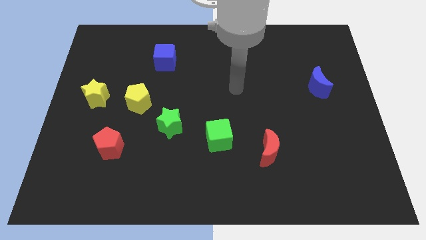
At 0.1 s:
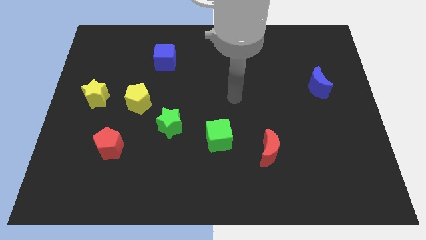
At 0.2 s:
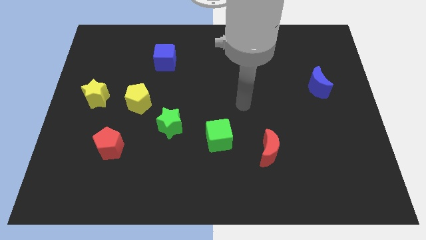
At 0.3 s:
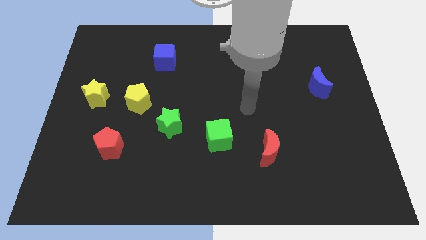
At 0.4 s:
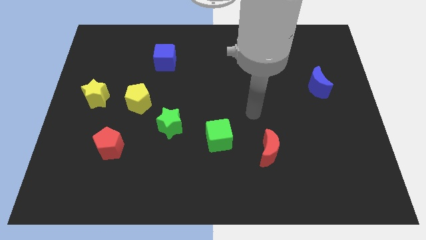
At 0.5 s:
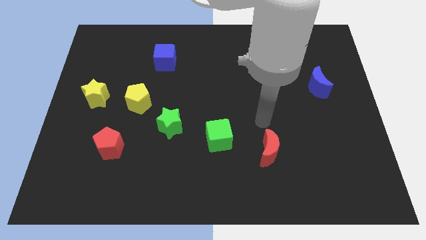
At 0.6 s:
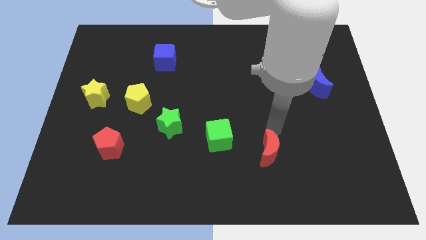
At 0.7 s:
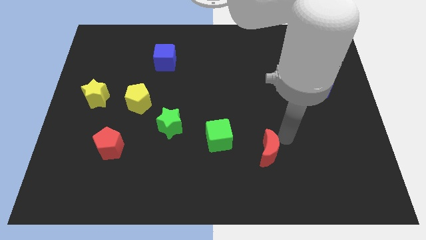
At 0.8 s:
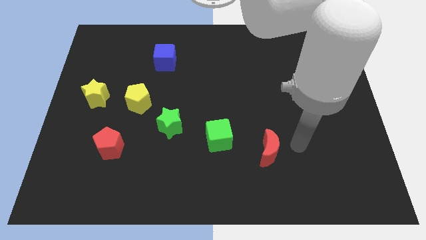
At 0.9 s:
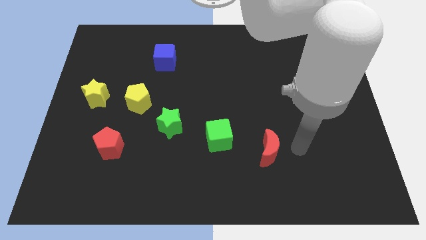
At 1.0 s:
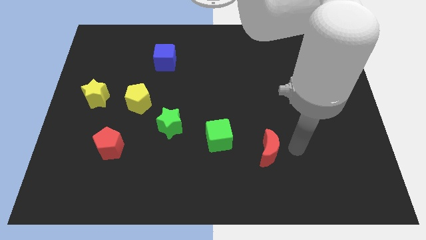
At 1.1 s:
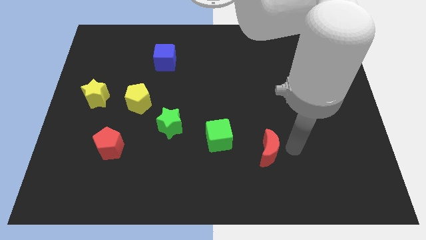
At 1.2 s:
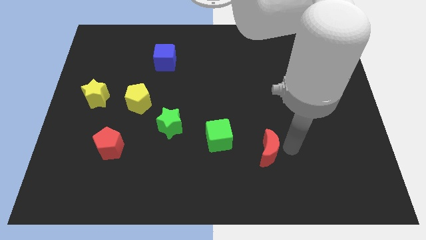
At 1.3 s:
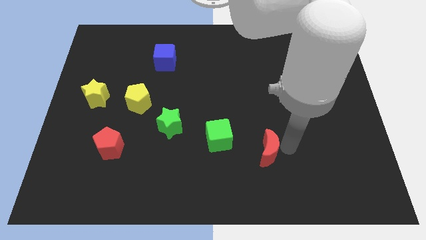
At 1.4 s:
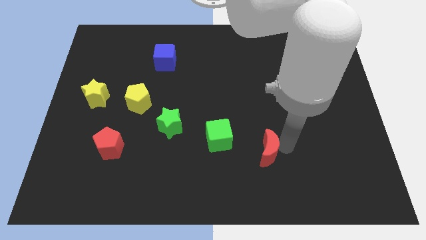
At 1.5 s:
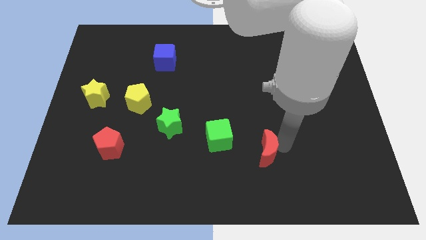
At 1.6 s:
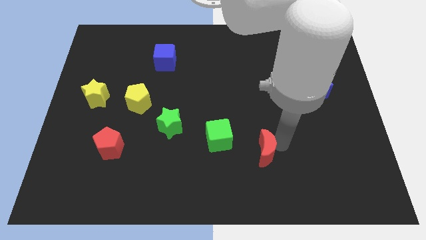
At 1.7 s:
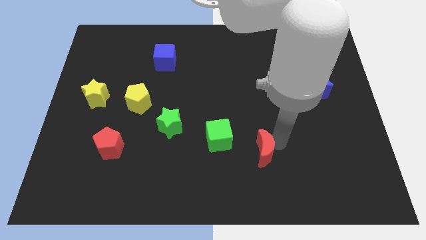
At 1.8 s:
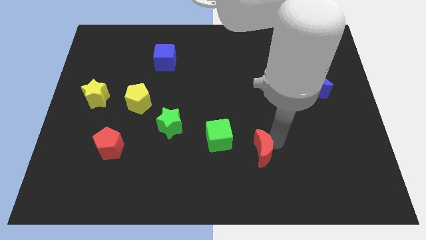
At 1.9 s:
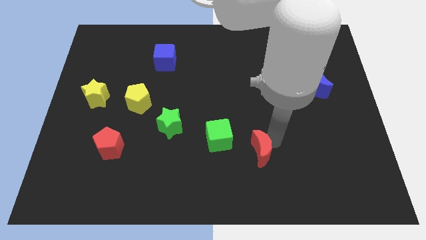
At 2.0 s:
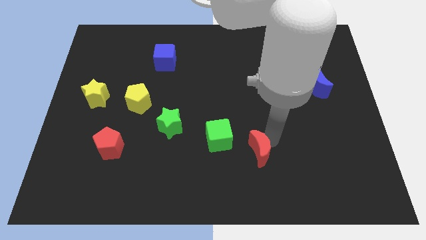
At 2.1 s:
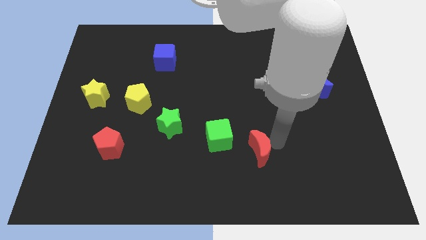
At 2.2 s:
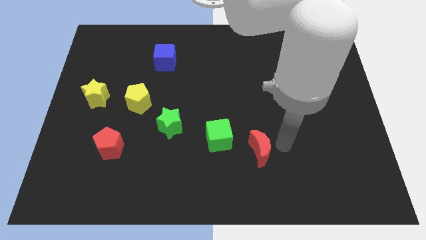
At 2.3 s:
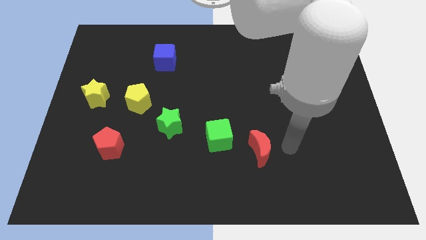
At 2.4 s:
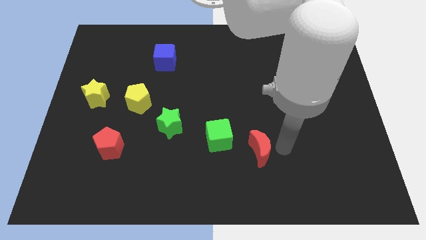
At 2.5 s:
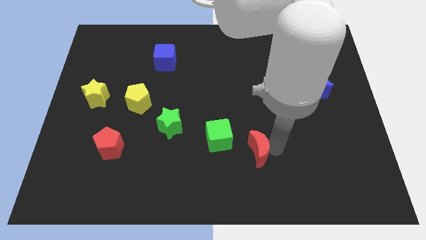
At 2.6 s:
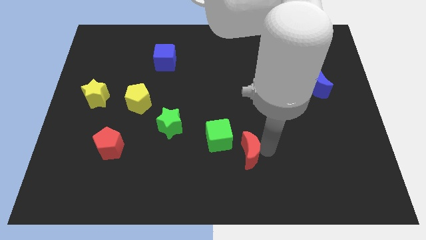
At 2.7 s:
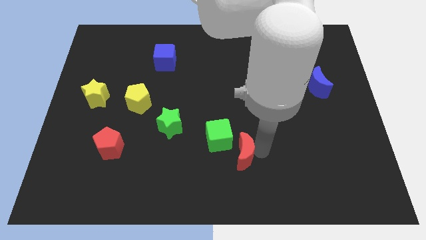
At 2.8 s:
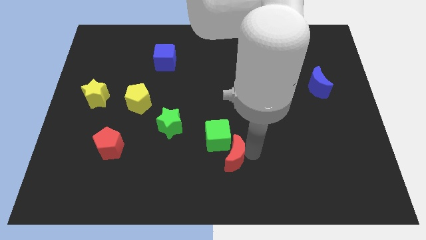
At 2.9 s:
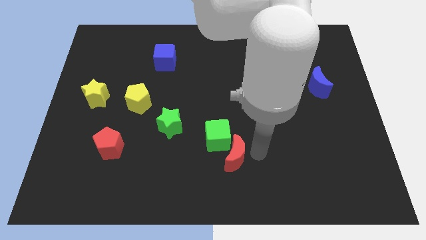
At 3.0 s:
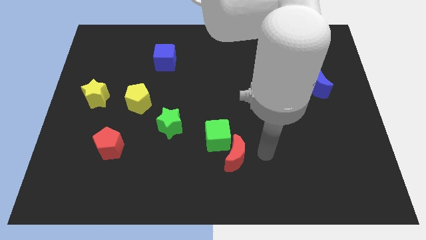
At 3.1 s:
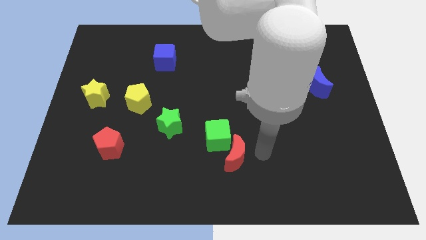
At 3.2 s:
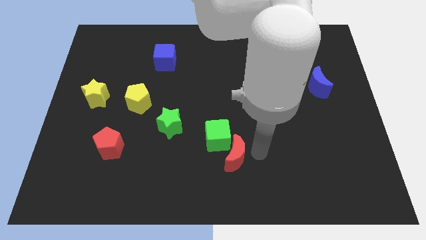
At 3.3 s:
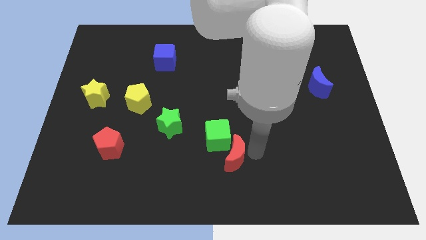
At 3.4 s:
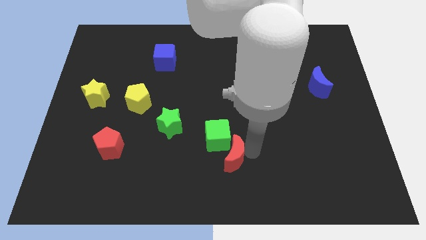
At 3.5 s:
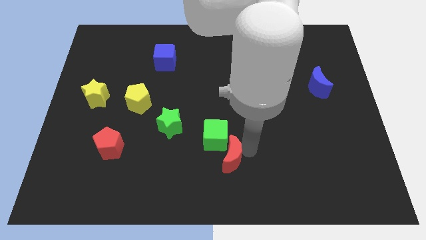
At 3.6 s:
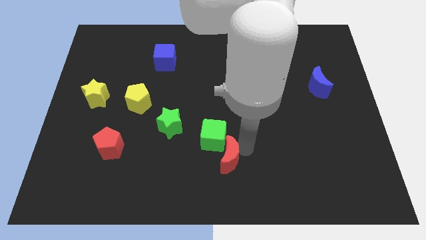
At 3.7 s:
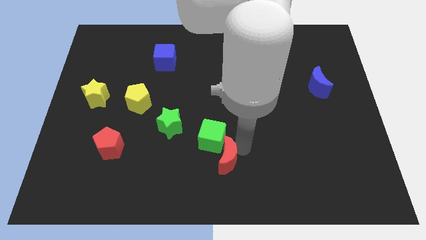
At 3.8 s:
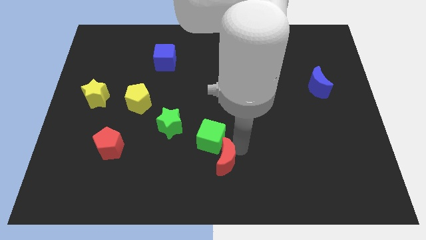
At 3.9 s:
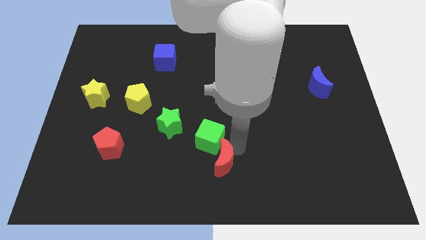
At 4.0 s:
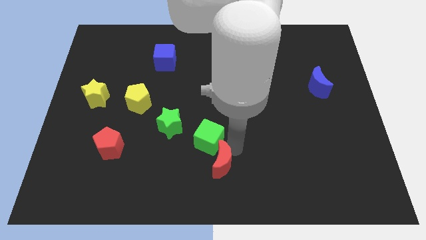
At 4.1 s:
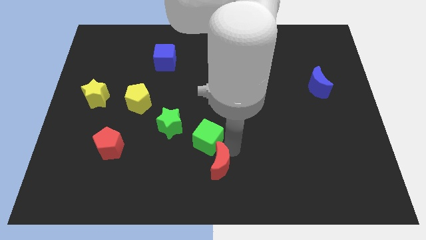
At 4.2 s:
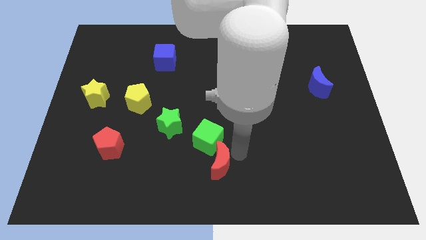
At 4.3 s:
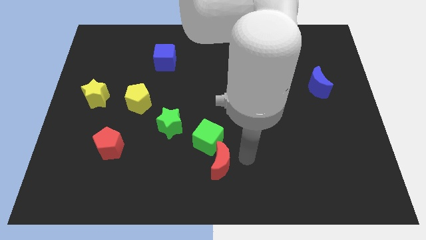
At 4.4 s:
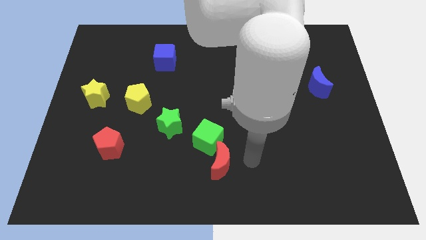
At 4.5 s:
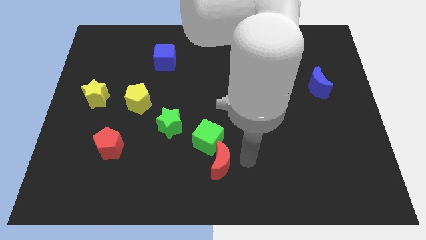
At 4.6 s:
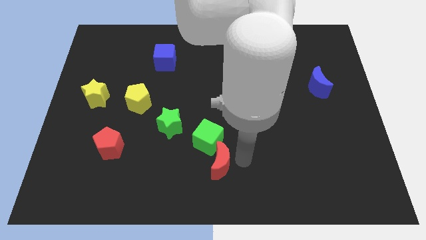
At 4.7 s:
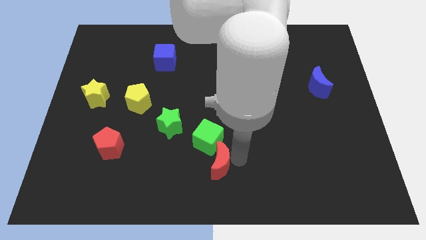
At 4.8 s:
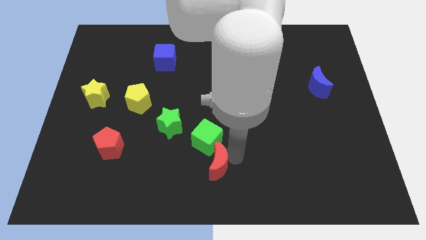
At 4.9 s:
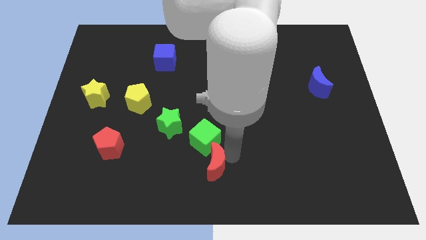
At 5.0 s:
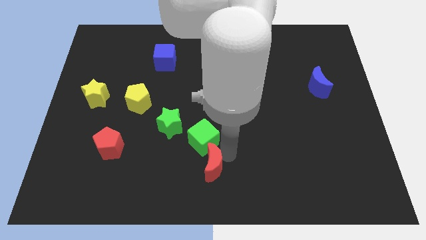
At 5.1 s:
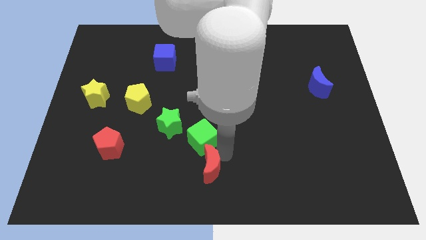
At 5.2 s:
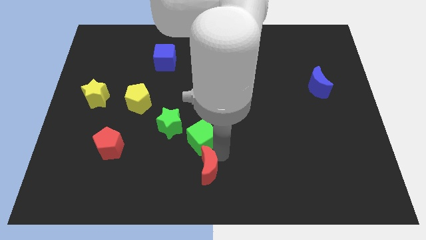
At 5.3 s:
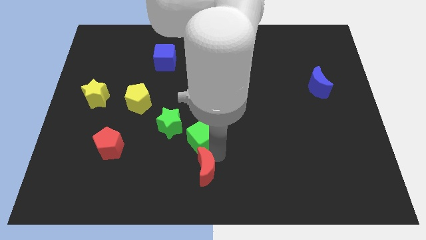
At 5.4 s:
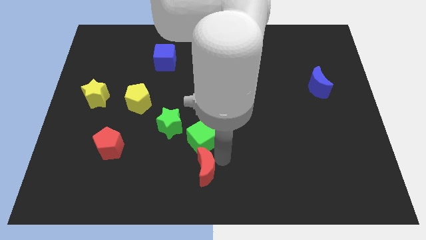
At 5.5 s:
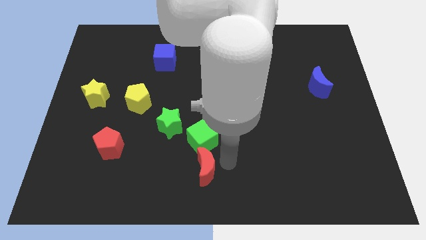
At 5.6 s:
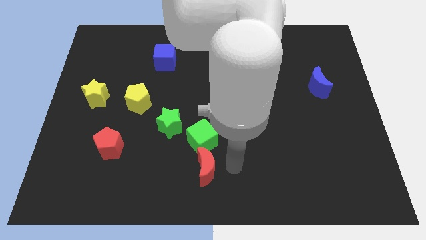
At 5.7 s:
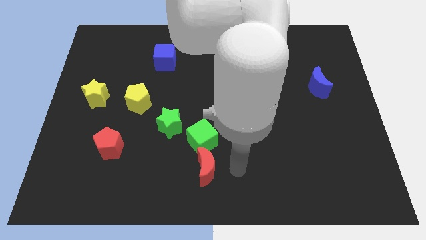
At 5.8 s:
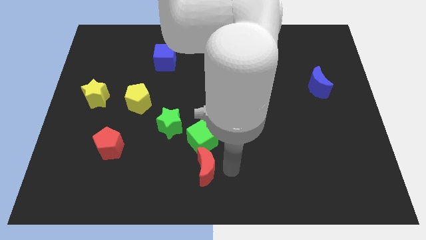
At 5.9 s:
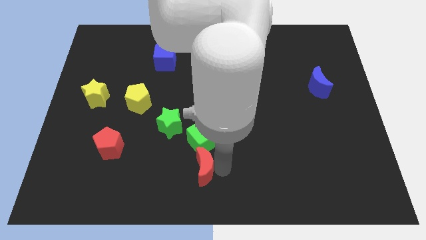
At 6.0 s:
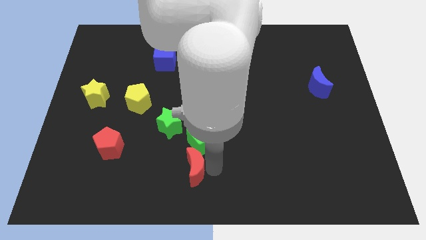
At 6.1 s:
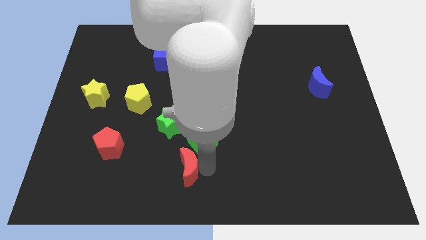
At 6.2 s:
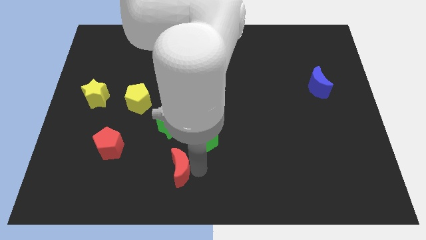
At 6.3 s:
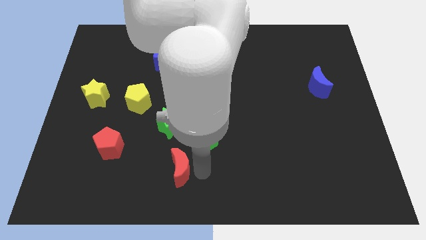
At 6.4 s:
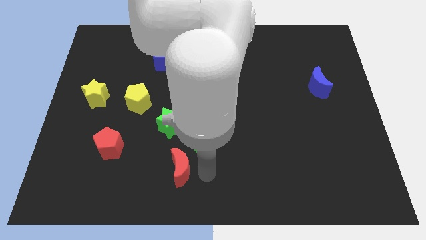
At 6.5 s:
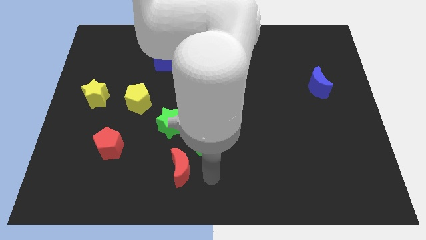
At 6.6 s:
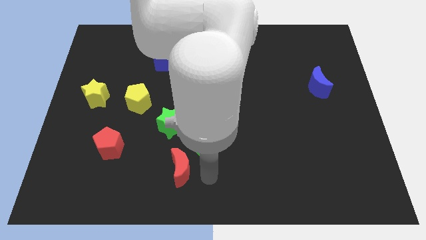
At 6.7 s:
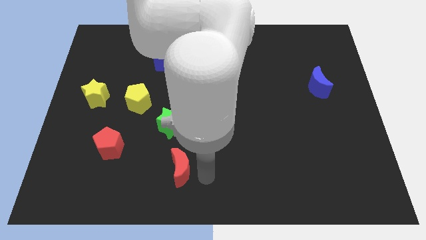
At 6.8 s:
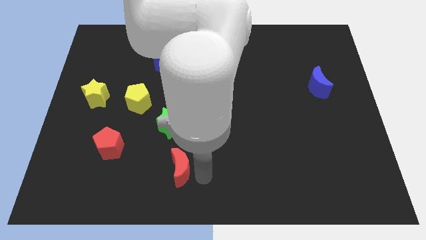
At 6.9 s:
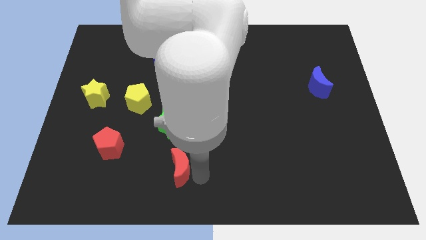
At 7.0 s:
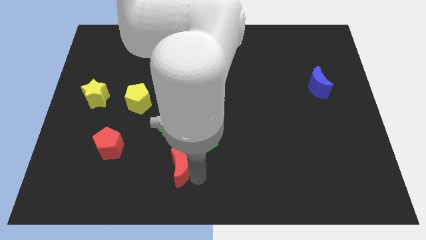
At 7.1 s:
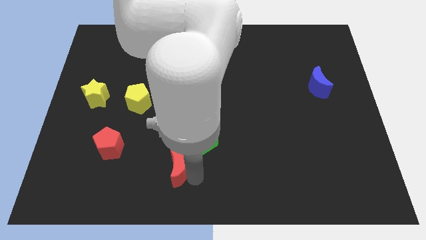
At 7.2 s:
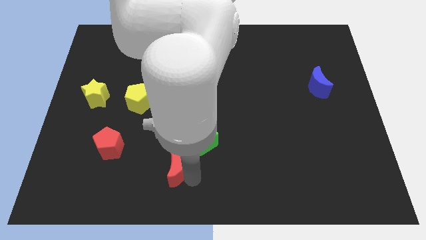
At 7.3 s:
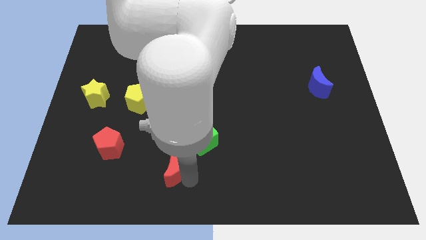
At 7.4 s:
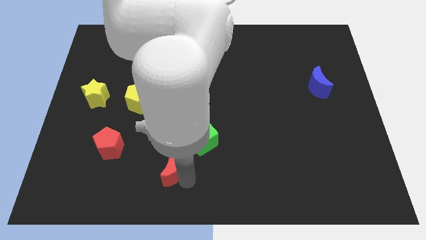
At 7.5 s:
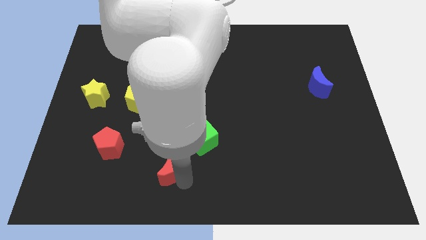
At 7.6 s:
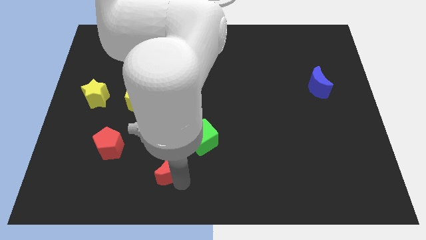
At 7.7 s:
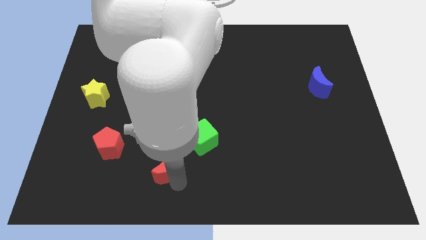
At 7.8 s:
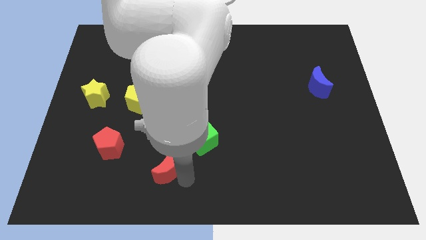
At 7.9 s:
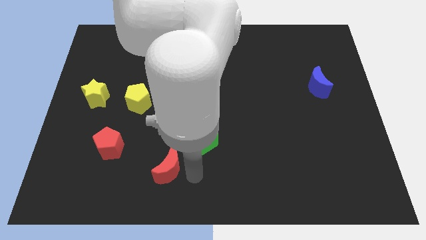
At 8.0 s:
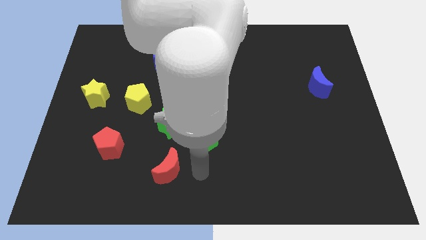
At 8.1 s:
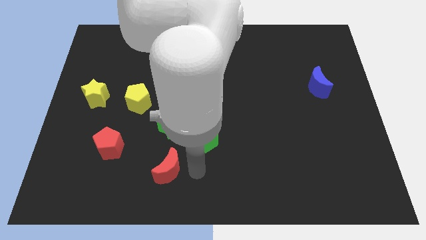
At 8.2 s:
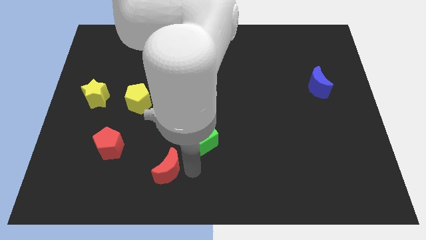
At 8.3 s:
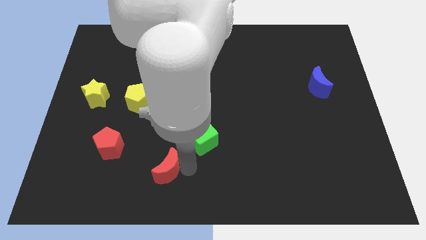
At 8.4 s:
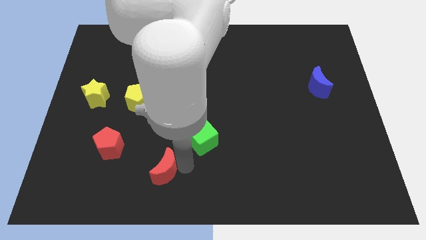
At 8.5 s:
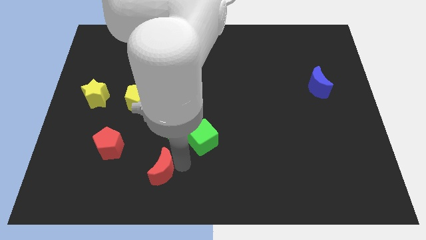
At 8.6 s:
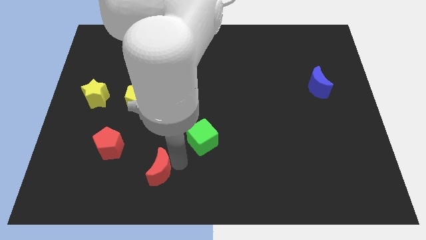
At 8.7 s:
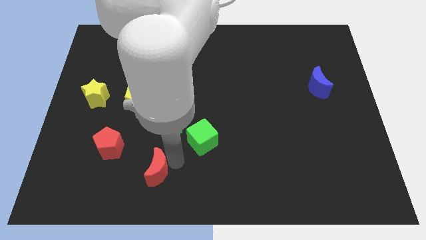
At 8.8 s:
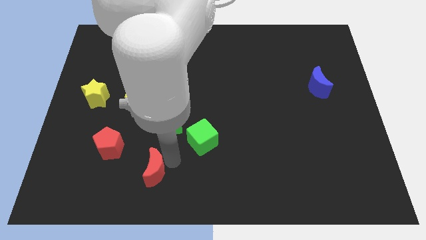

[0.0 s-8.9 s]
slide the red moon to the bottom right of the red pentagon
